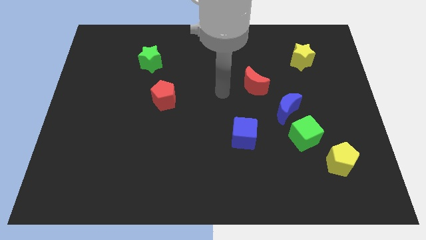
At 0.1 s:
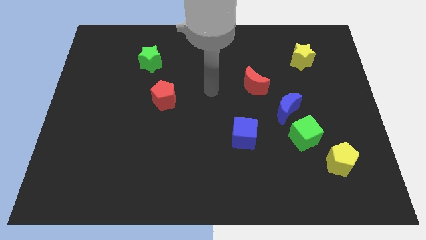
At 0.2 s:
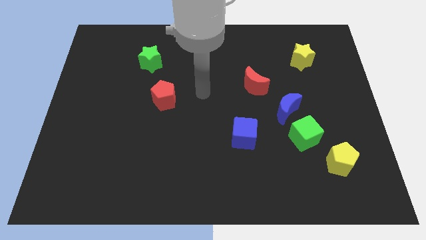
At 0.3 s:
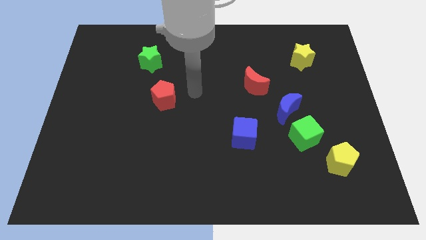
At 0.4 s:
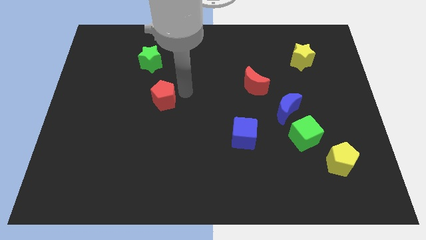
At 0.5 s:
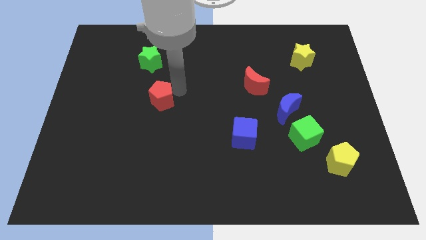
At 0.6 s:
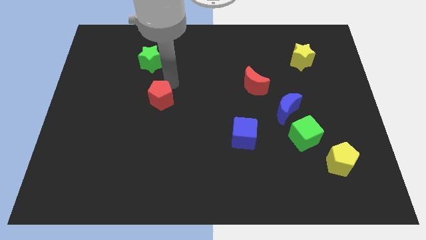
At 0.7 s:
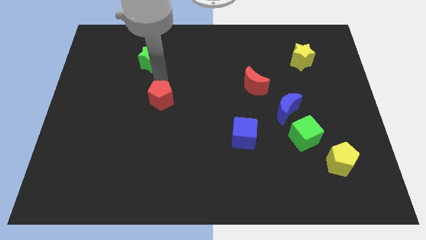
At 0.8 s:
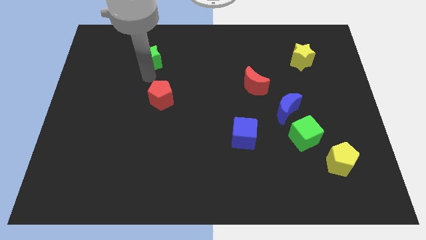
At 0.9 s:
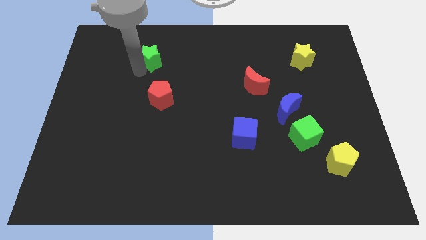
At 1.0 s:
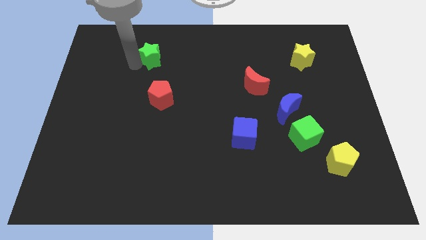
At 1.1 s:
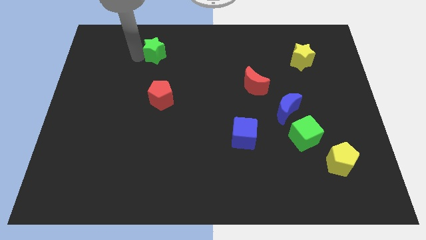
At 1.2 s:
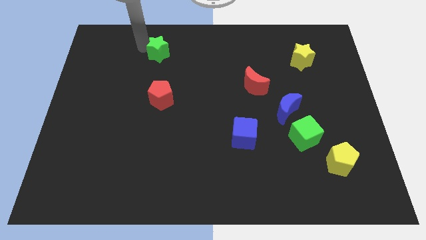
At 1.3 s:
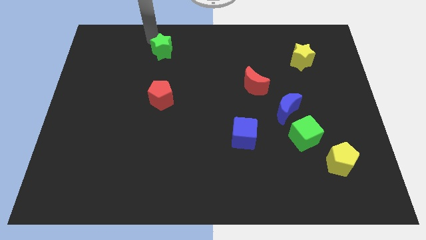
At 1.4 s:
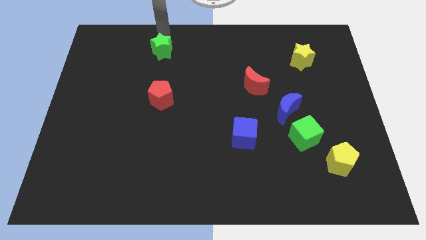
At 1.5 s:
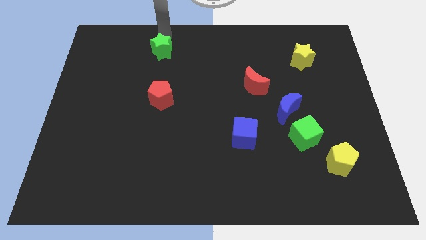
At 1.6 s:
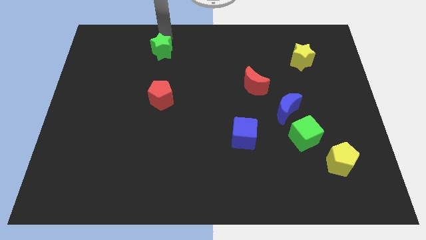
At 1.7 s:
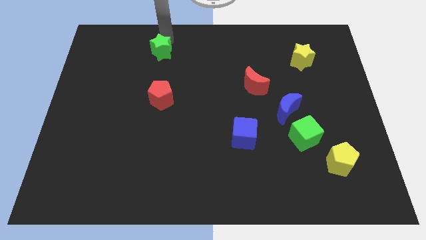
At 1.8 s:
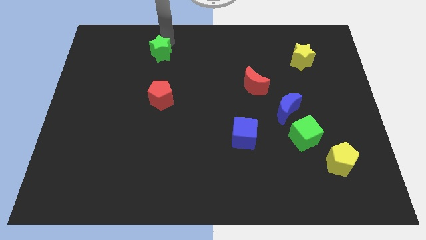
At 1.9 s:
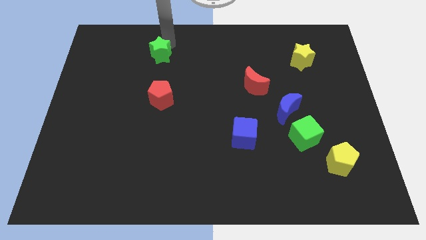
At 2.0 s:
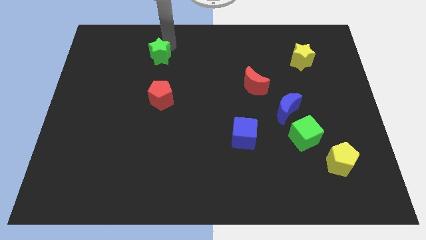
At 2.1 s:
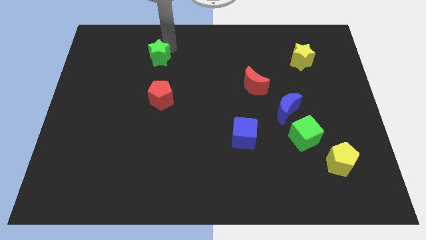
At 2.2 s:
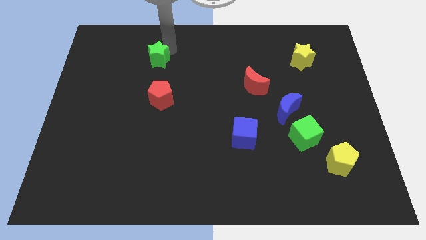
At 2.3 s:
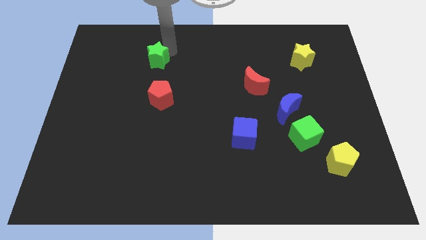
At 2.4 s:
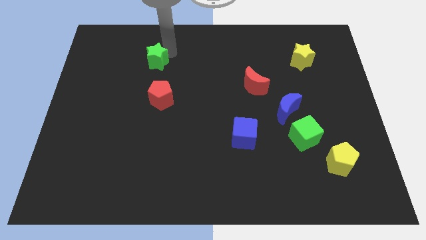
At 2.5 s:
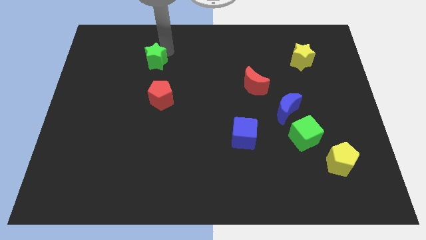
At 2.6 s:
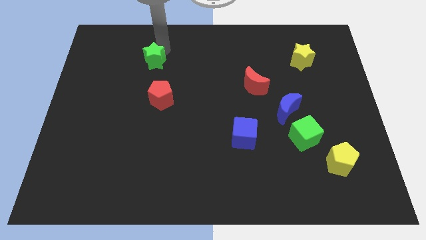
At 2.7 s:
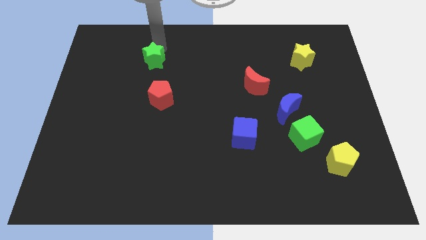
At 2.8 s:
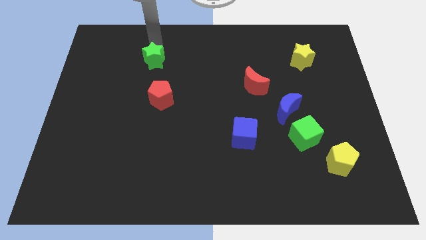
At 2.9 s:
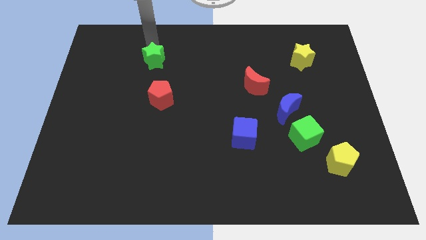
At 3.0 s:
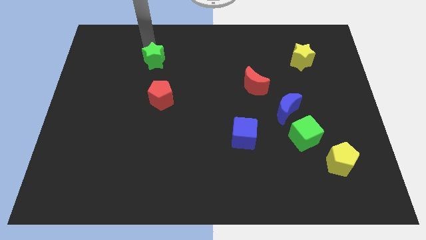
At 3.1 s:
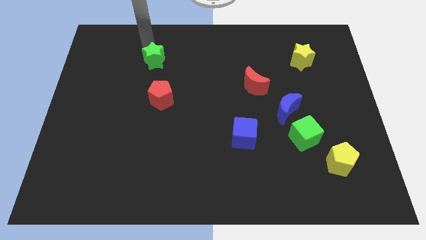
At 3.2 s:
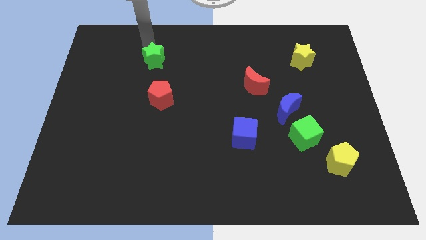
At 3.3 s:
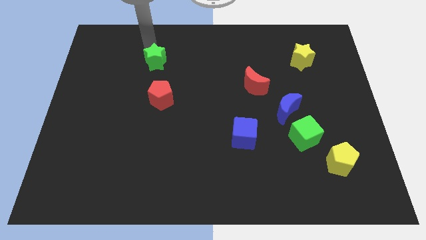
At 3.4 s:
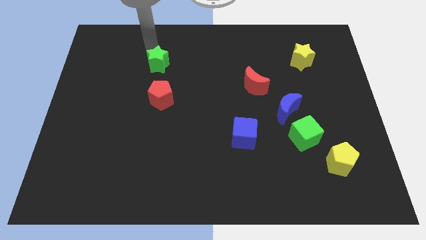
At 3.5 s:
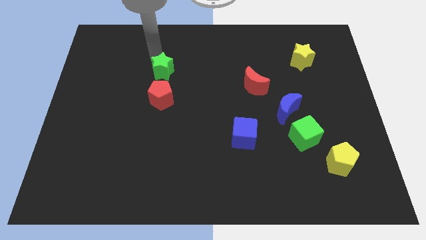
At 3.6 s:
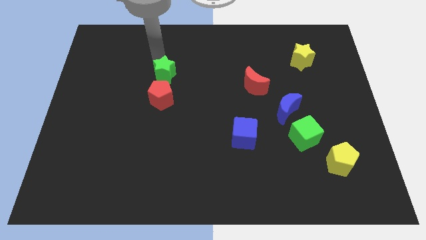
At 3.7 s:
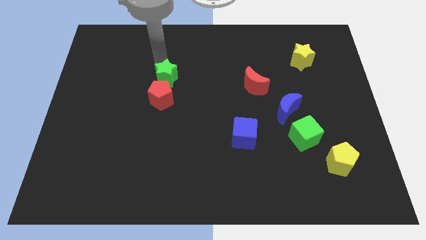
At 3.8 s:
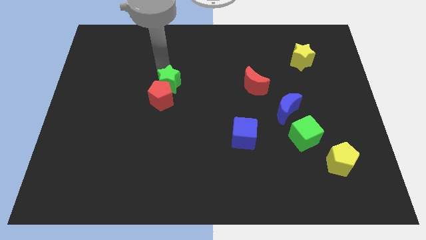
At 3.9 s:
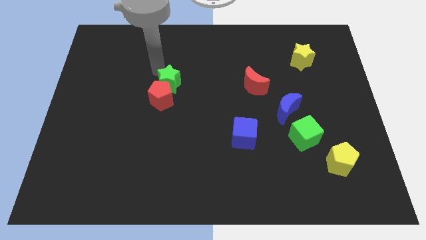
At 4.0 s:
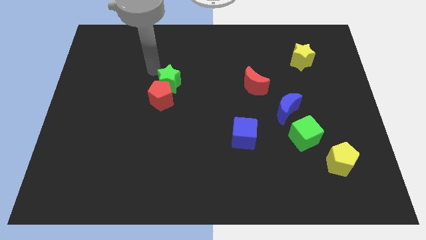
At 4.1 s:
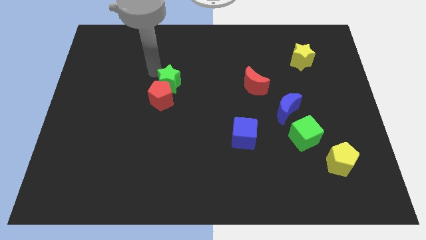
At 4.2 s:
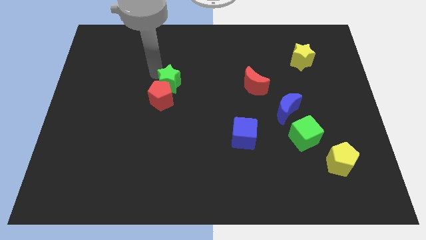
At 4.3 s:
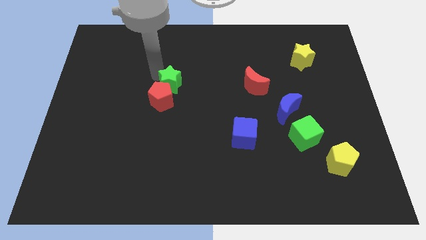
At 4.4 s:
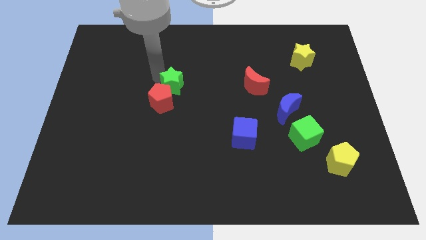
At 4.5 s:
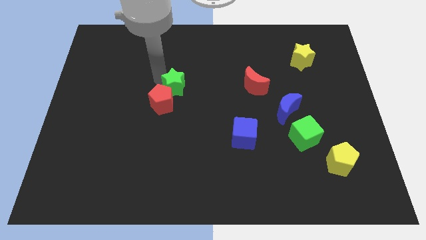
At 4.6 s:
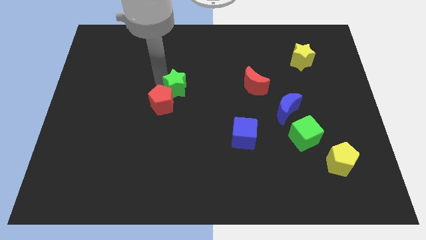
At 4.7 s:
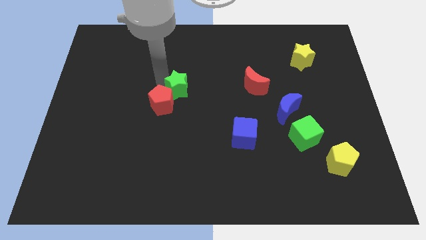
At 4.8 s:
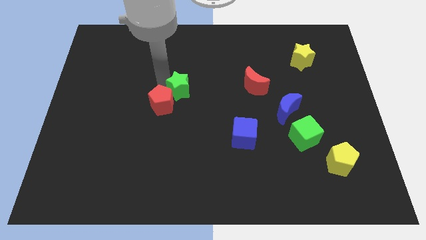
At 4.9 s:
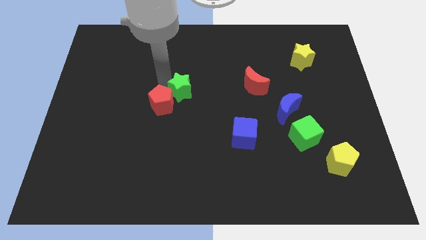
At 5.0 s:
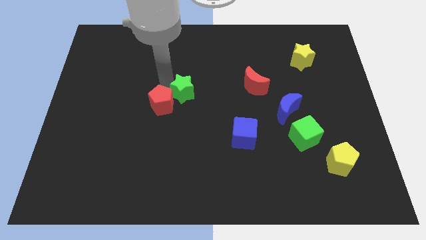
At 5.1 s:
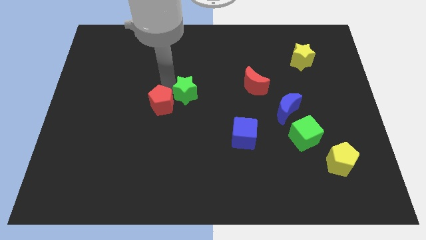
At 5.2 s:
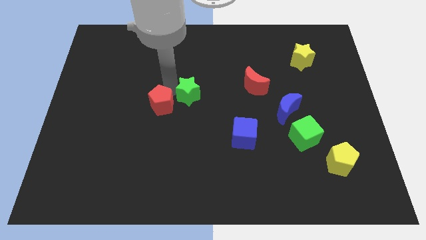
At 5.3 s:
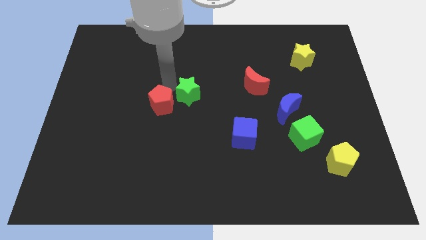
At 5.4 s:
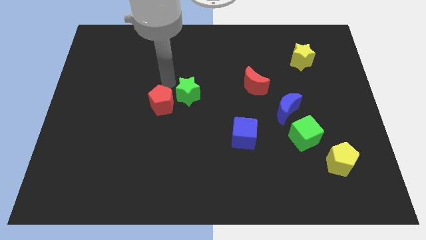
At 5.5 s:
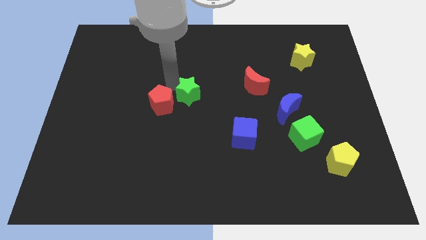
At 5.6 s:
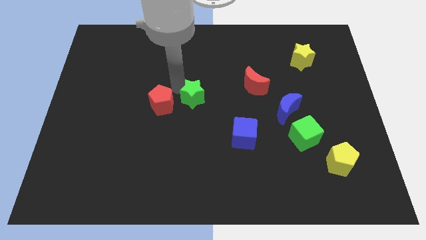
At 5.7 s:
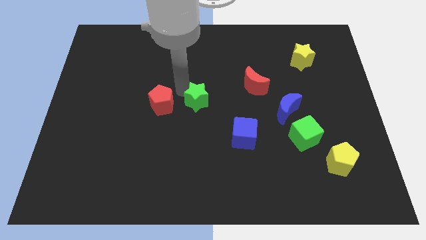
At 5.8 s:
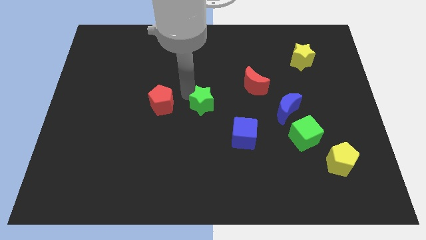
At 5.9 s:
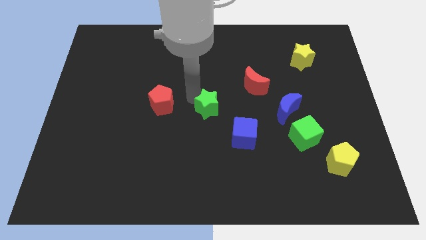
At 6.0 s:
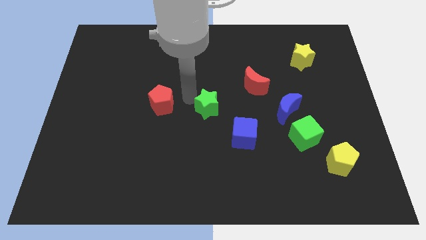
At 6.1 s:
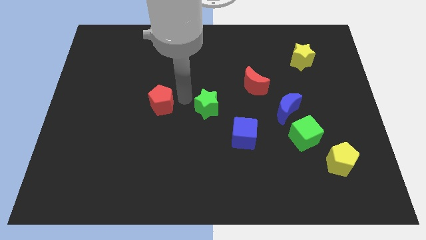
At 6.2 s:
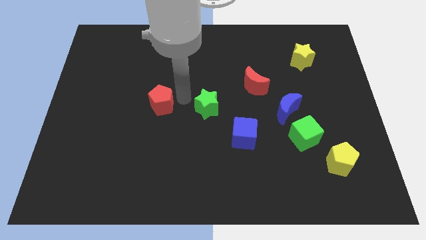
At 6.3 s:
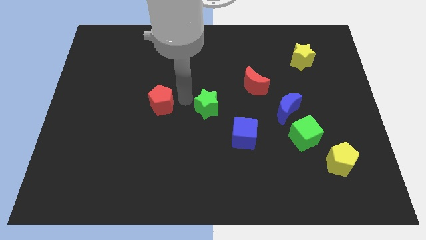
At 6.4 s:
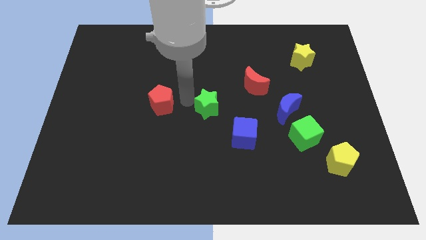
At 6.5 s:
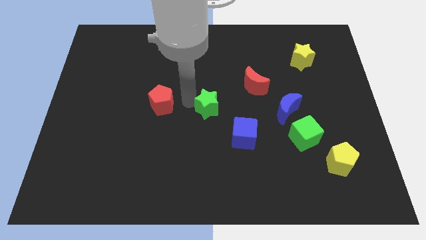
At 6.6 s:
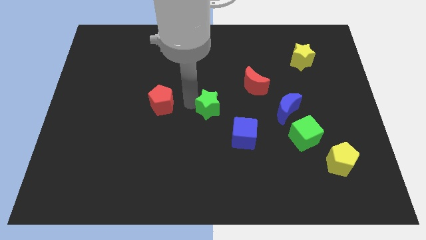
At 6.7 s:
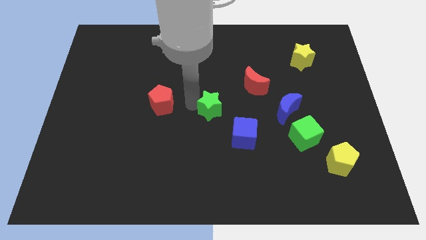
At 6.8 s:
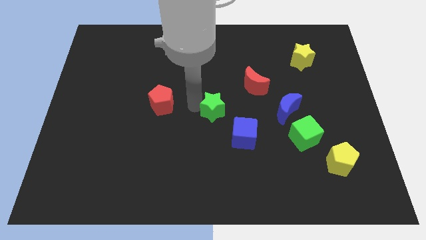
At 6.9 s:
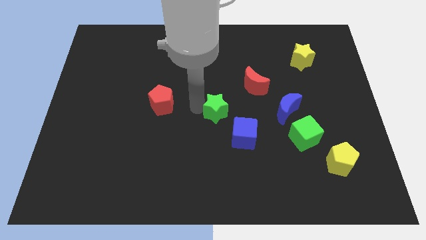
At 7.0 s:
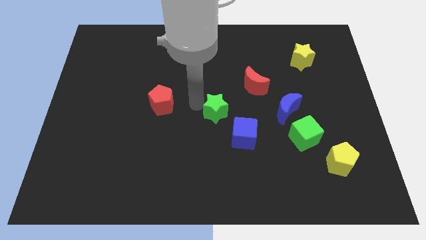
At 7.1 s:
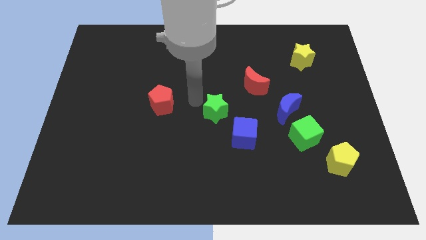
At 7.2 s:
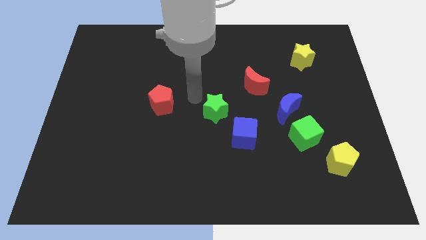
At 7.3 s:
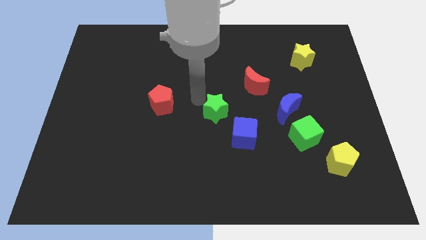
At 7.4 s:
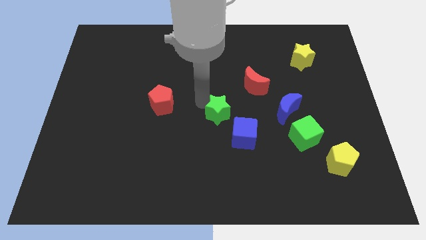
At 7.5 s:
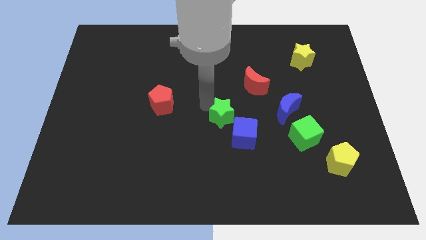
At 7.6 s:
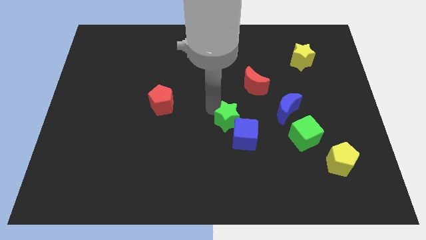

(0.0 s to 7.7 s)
slide the green star close to the blue cube
